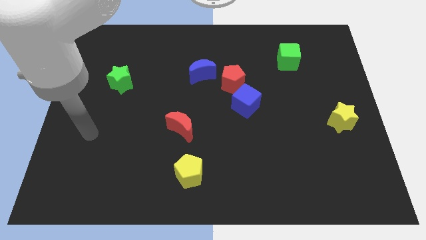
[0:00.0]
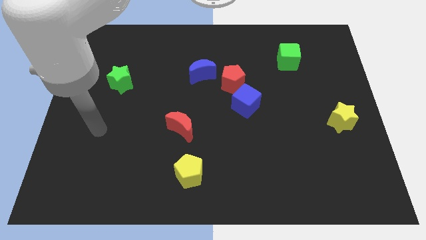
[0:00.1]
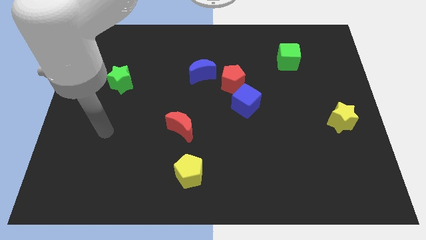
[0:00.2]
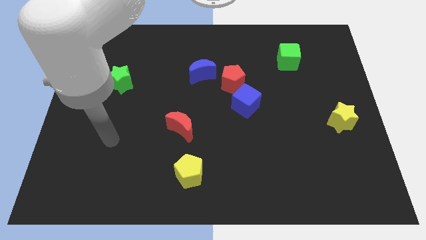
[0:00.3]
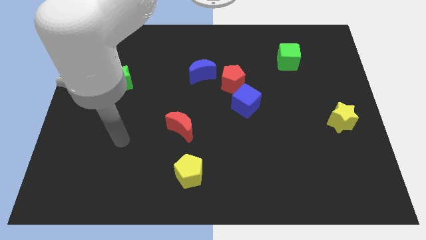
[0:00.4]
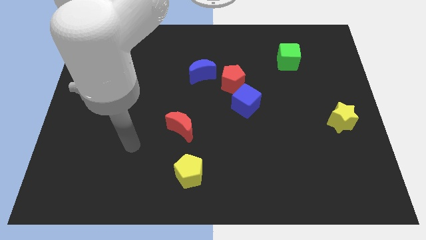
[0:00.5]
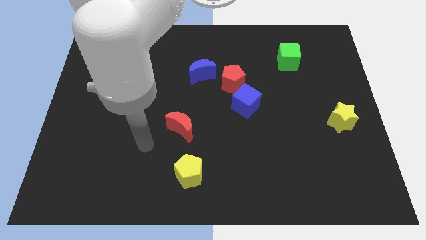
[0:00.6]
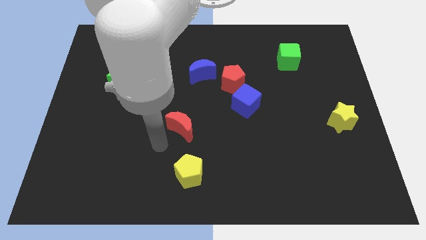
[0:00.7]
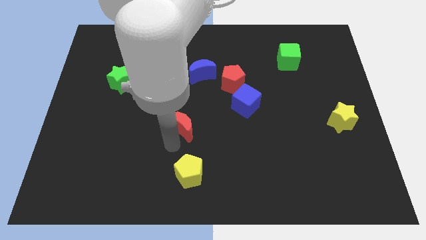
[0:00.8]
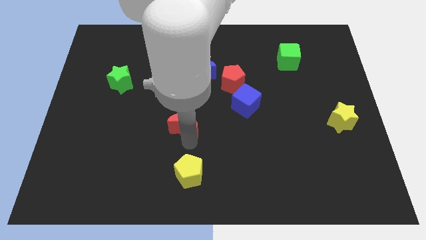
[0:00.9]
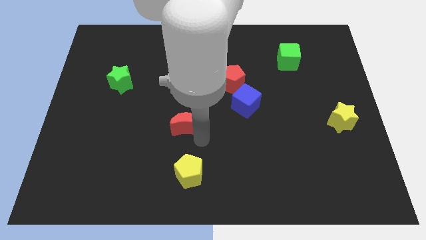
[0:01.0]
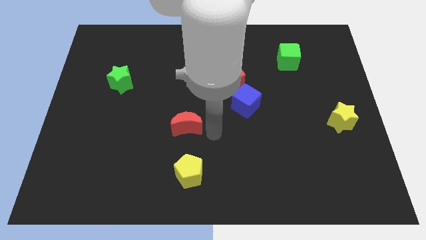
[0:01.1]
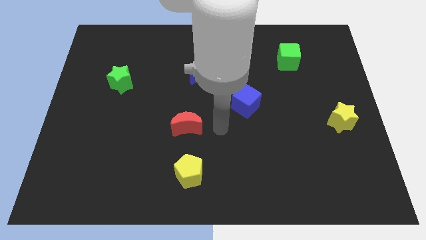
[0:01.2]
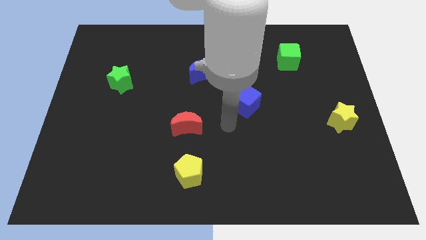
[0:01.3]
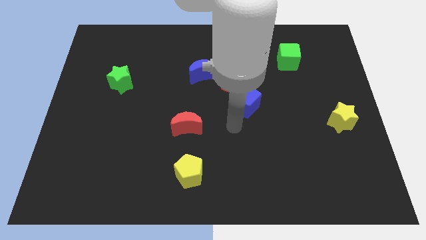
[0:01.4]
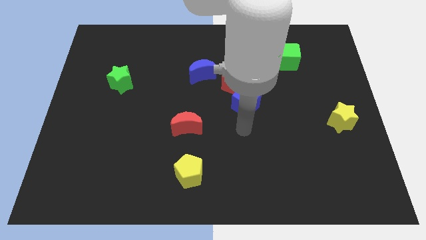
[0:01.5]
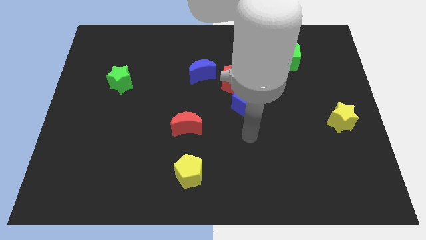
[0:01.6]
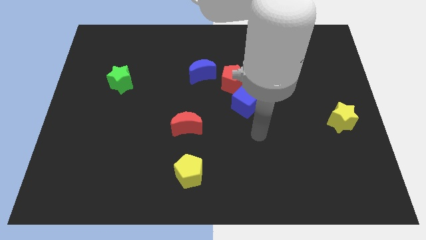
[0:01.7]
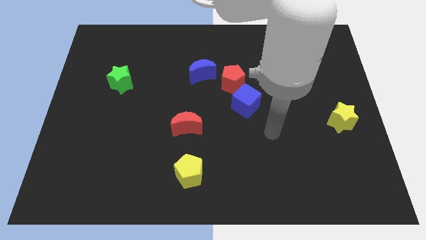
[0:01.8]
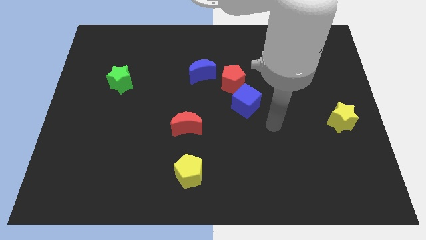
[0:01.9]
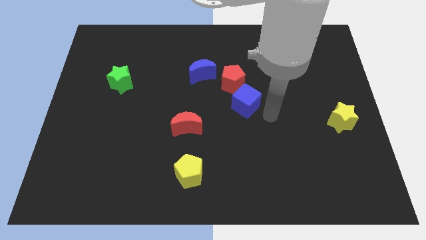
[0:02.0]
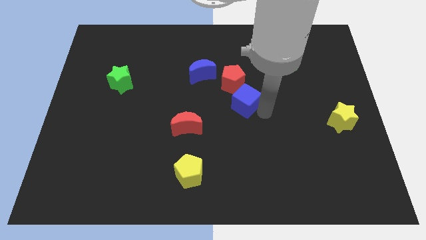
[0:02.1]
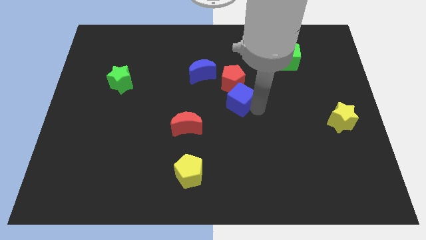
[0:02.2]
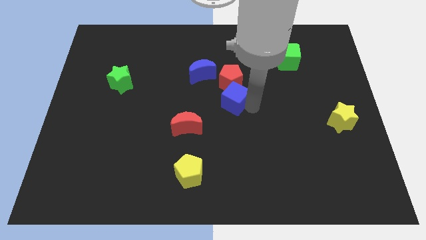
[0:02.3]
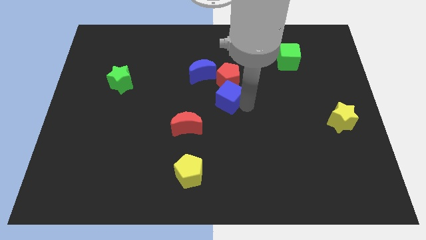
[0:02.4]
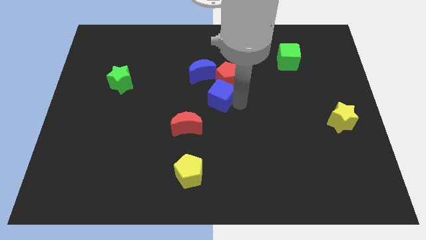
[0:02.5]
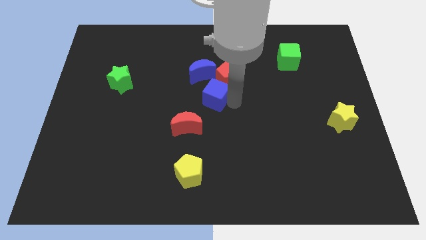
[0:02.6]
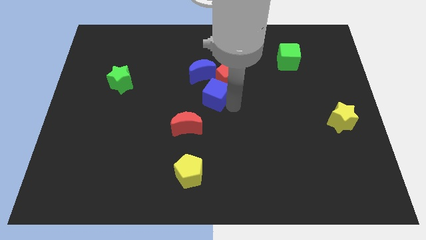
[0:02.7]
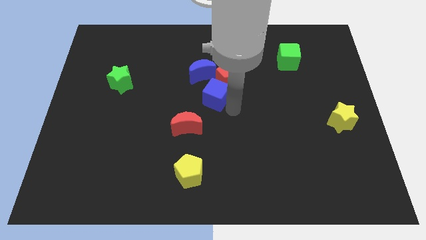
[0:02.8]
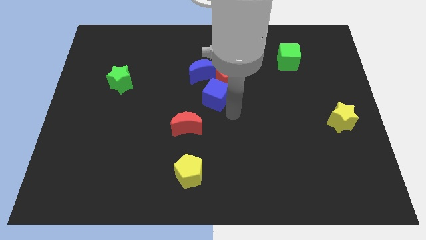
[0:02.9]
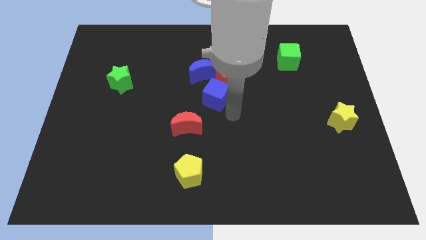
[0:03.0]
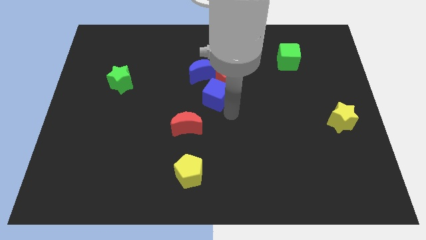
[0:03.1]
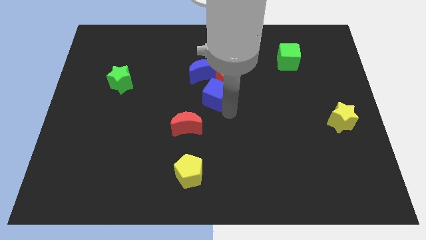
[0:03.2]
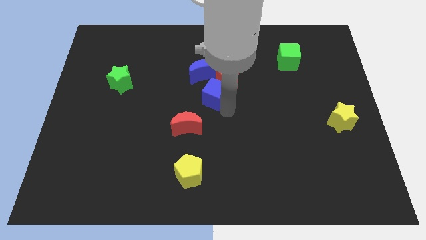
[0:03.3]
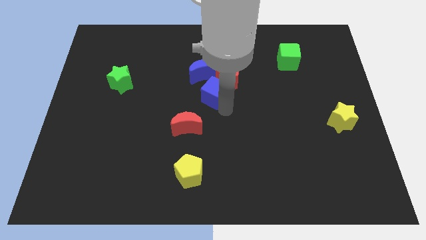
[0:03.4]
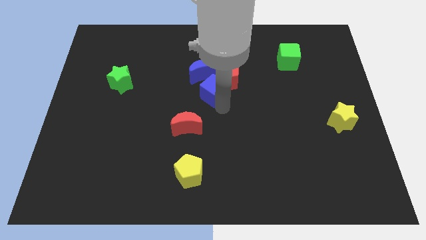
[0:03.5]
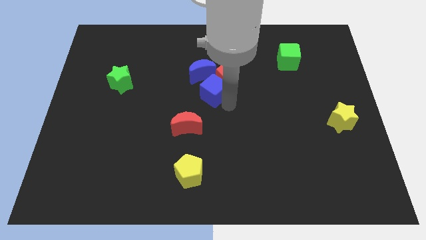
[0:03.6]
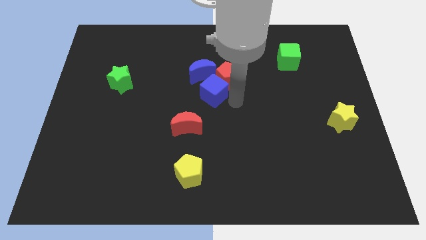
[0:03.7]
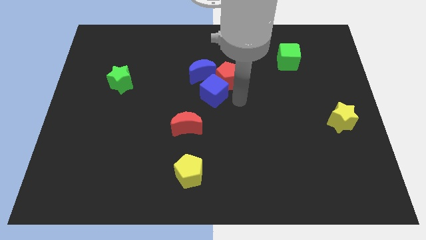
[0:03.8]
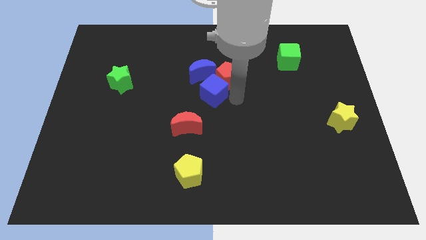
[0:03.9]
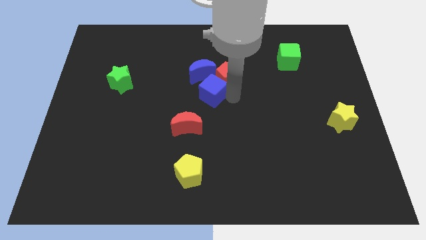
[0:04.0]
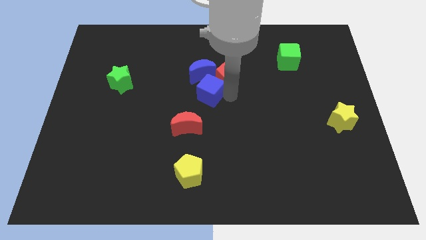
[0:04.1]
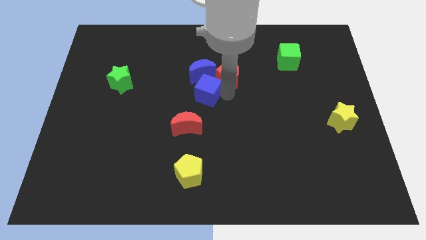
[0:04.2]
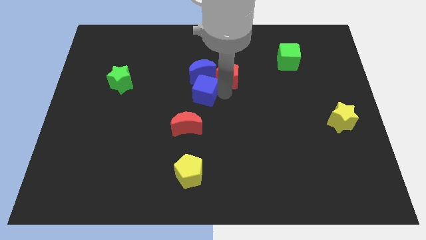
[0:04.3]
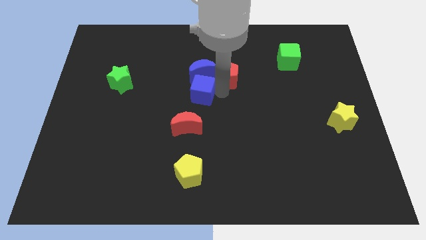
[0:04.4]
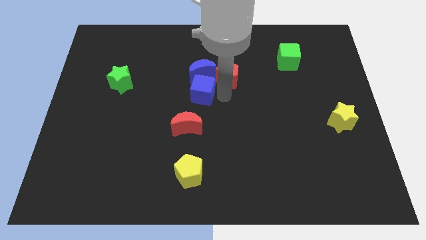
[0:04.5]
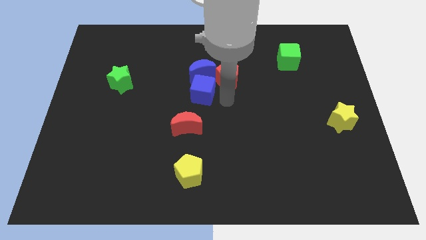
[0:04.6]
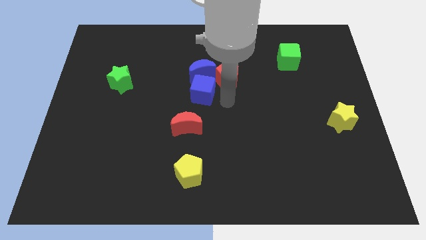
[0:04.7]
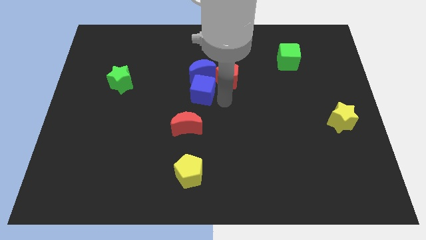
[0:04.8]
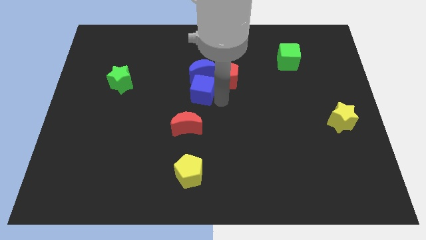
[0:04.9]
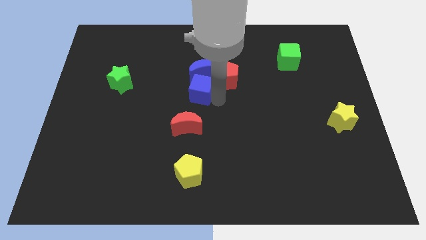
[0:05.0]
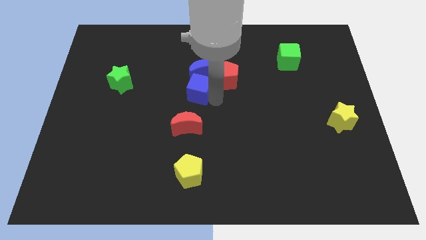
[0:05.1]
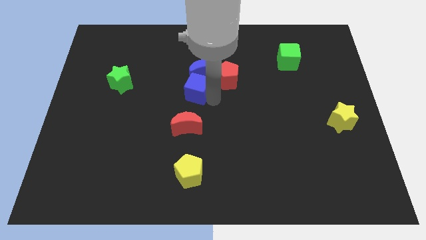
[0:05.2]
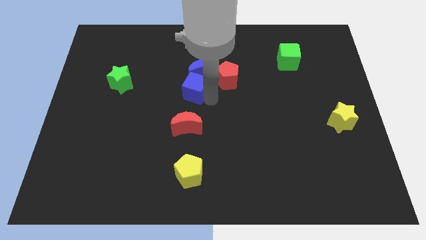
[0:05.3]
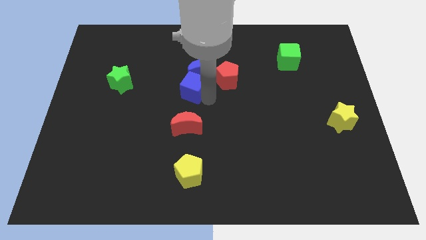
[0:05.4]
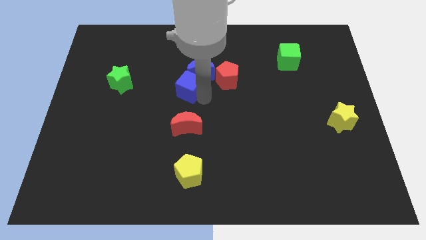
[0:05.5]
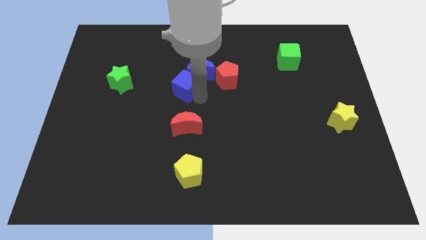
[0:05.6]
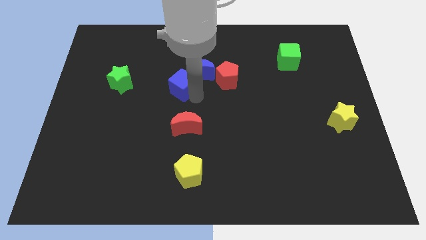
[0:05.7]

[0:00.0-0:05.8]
move the blue cube just left of the blue moon
